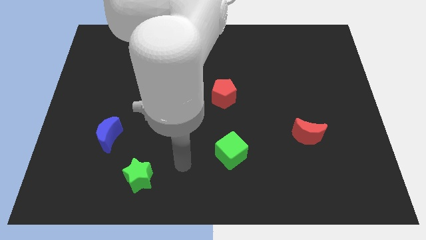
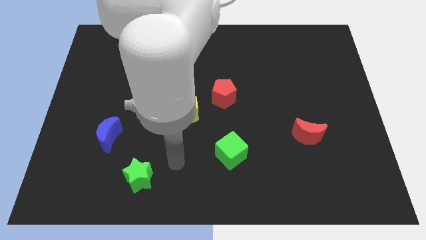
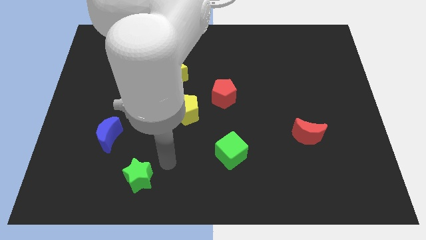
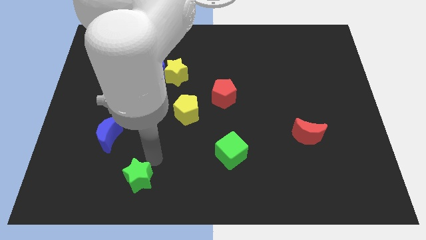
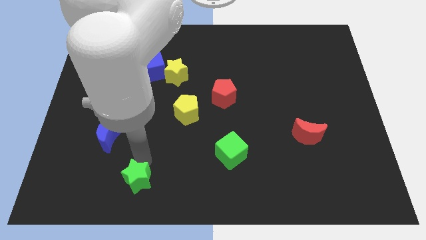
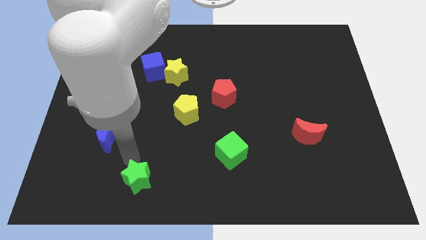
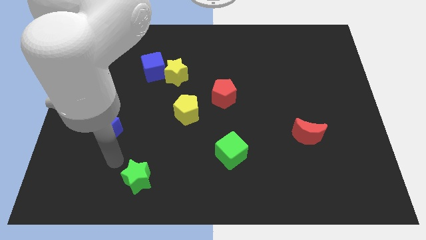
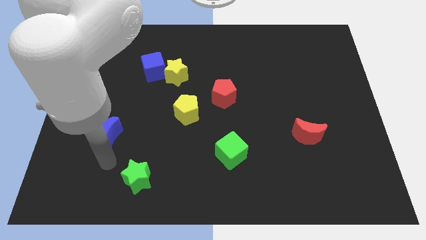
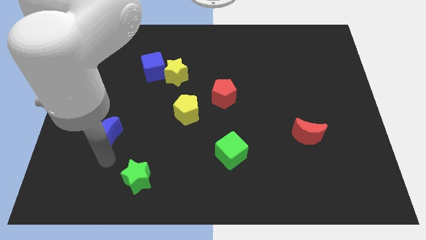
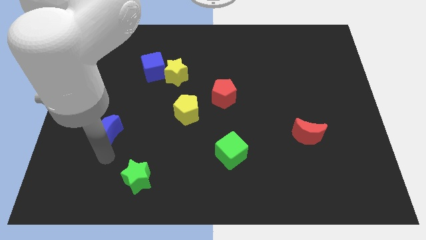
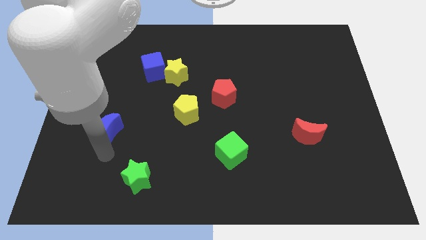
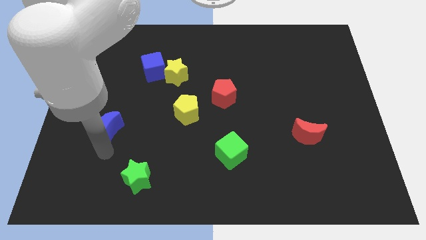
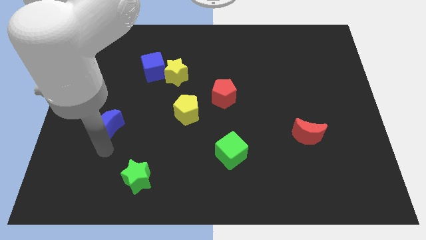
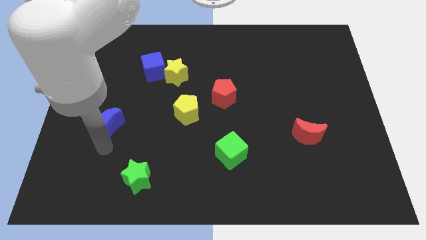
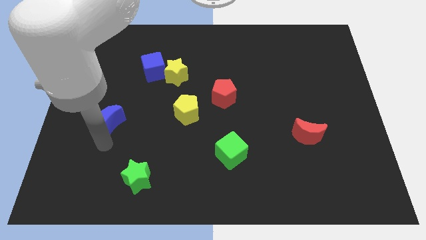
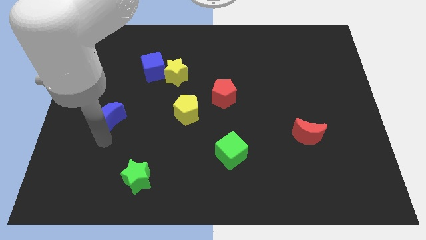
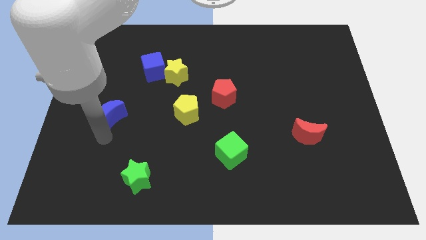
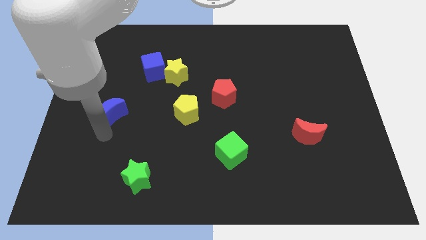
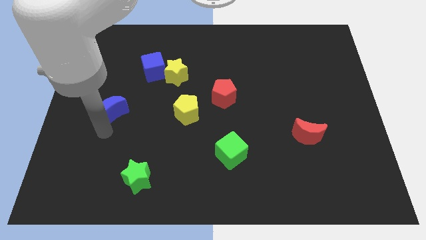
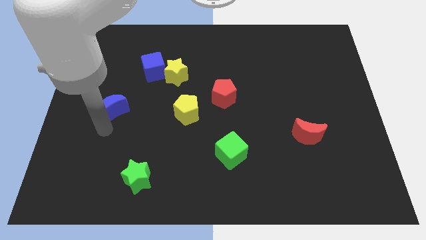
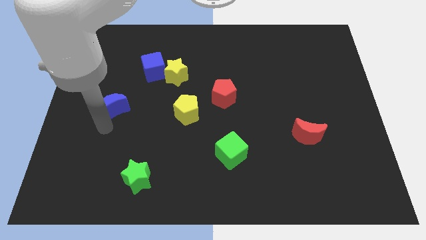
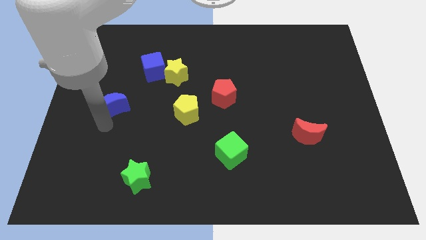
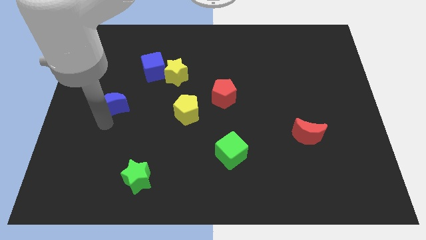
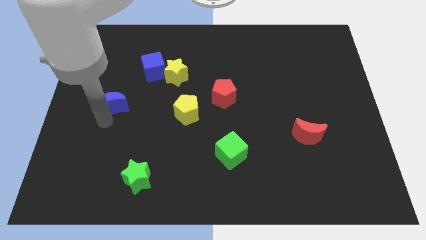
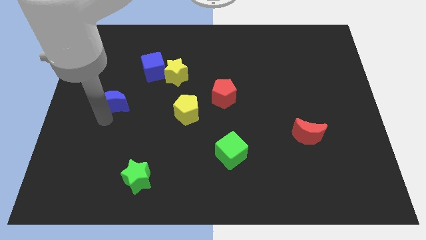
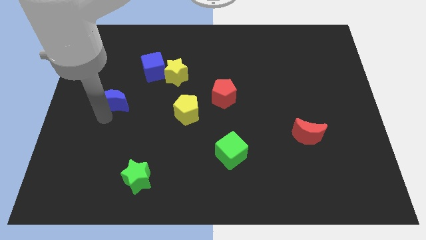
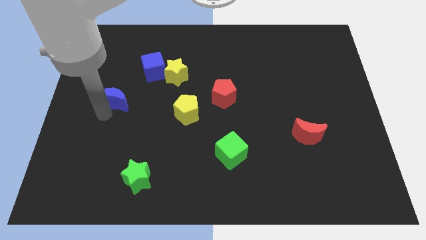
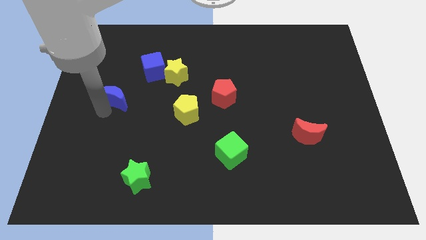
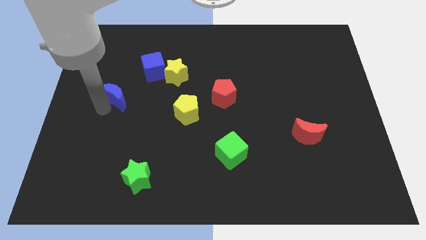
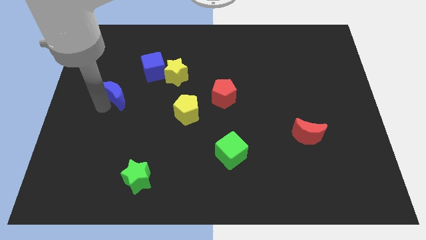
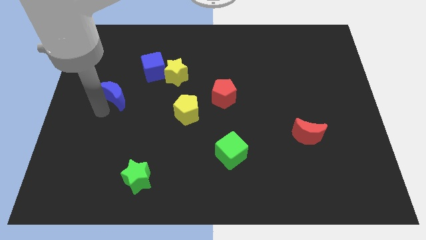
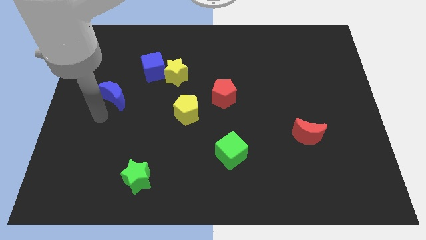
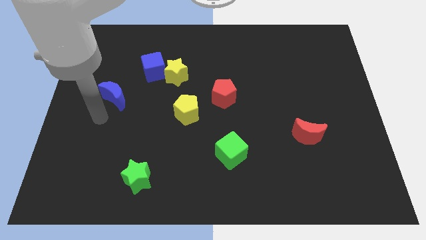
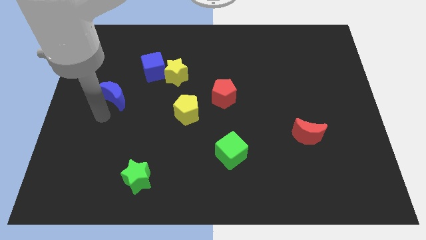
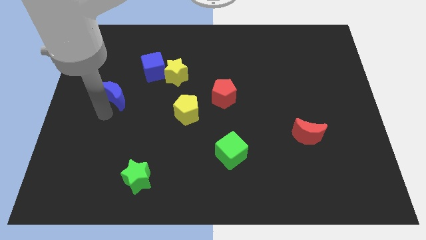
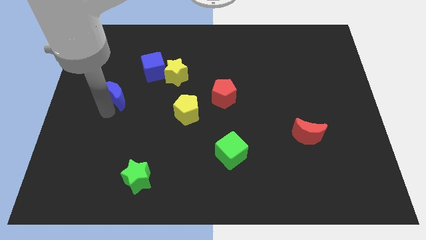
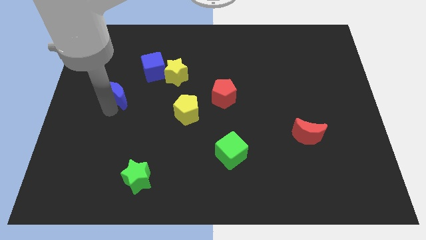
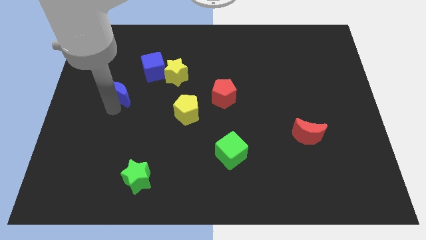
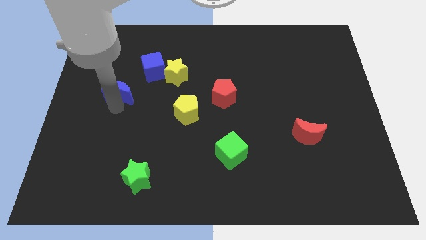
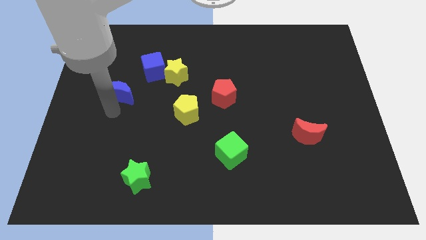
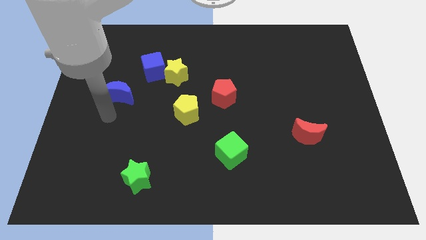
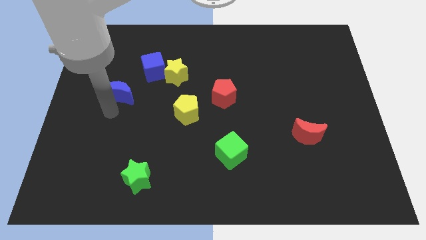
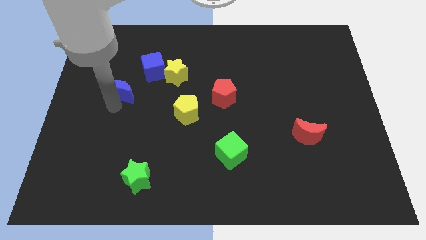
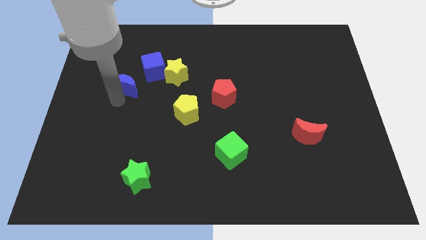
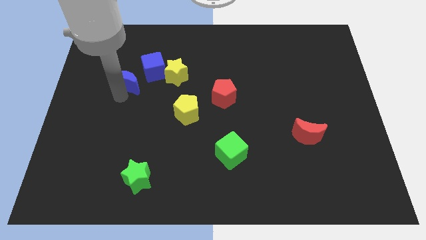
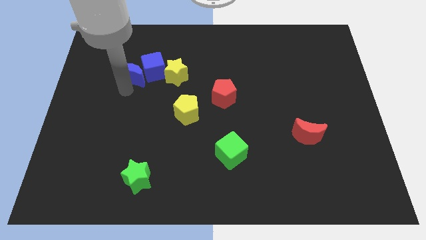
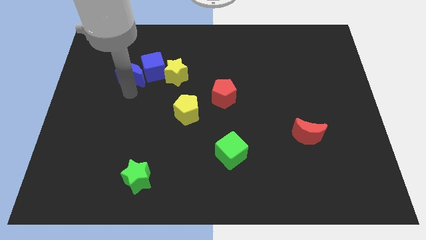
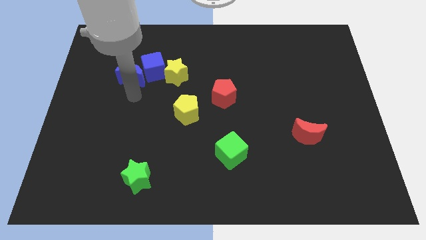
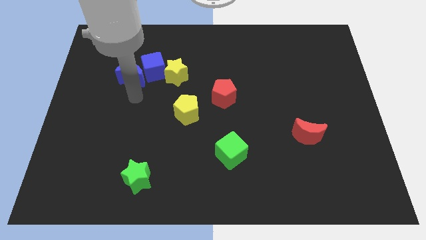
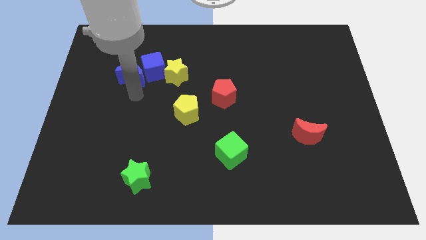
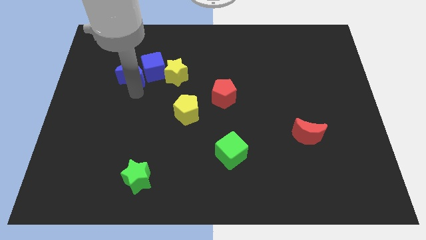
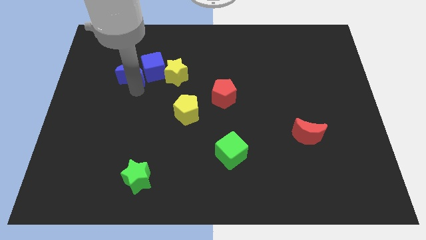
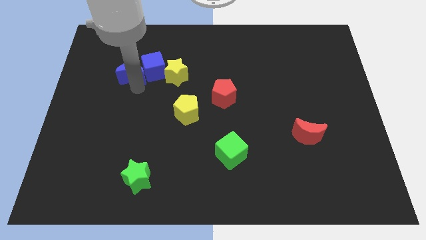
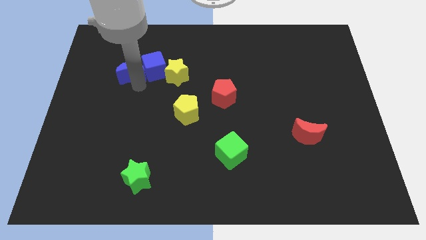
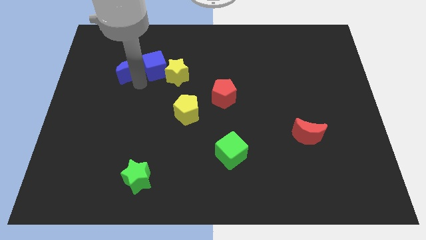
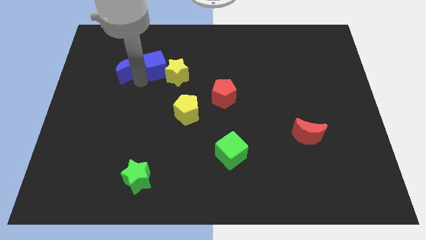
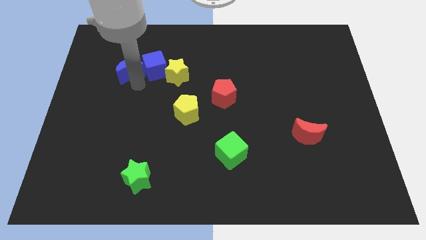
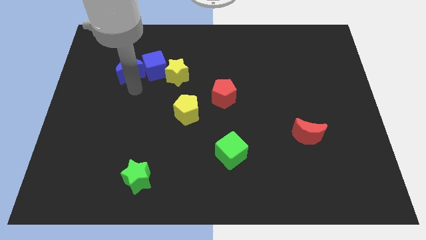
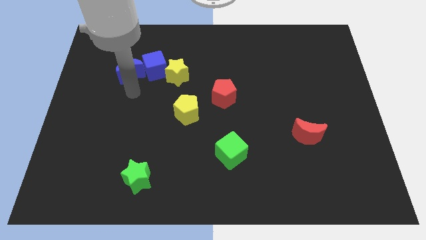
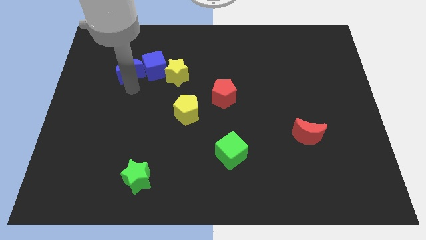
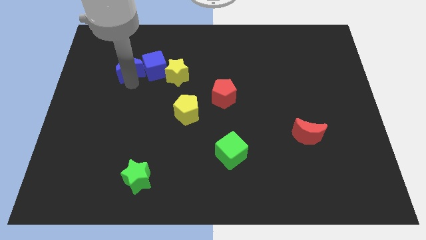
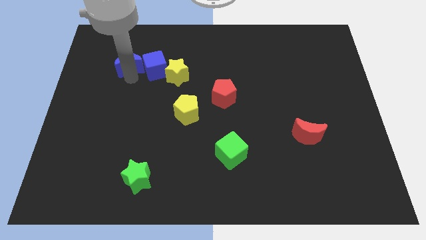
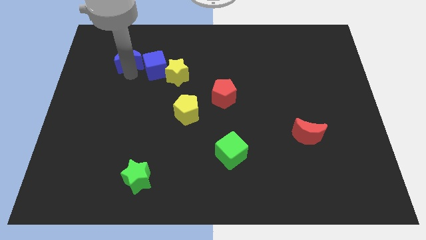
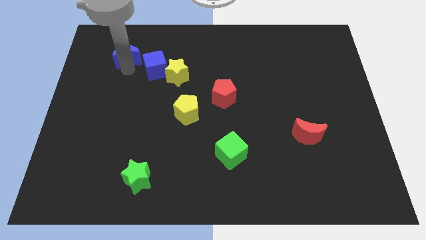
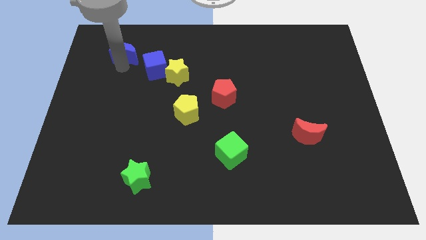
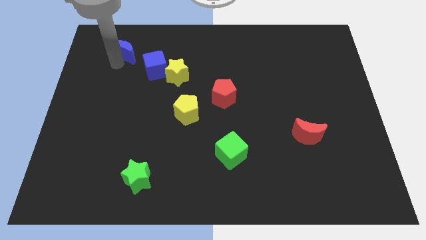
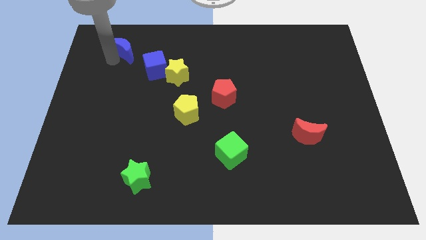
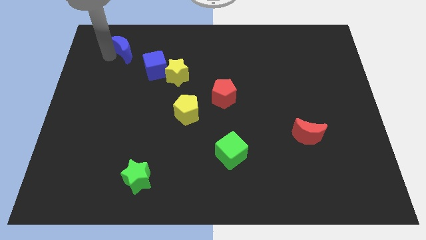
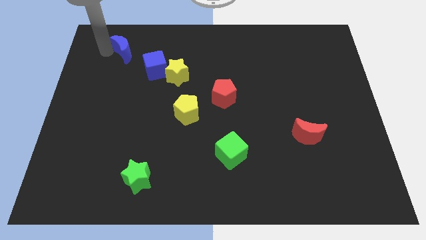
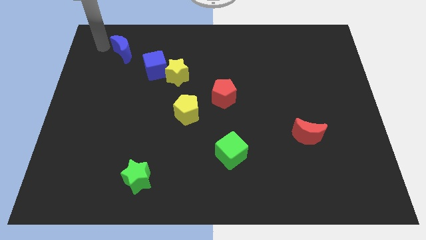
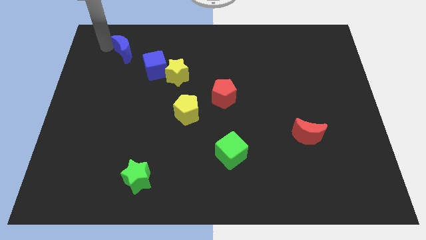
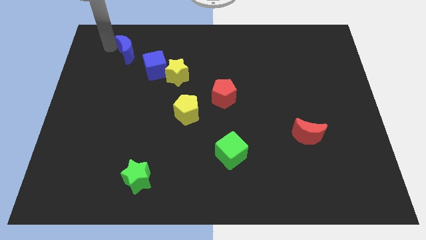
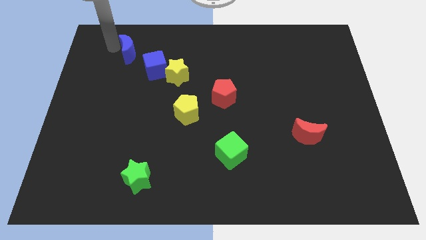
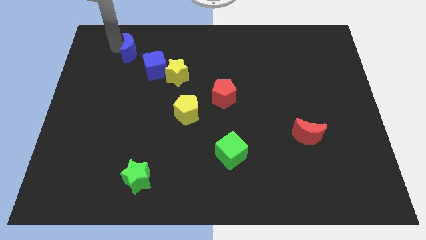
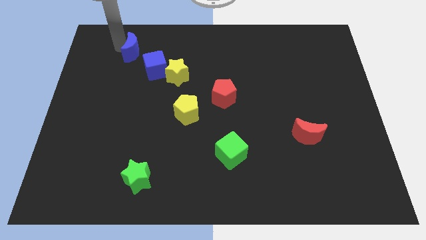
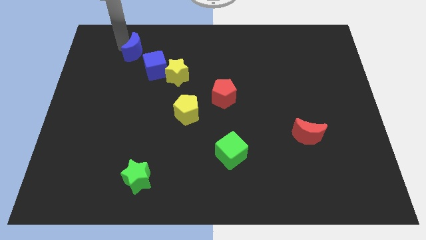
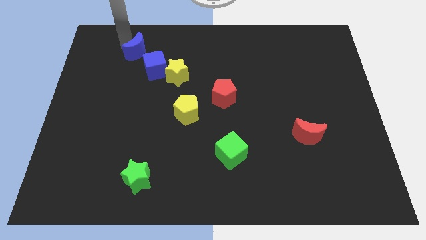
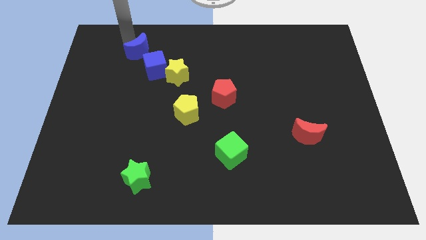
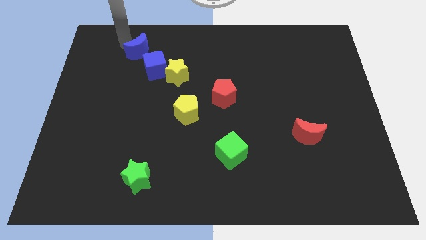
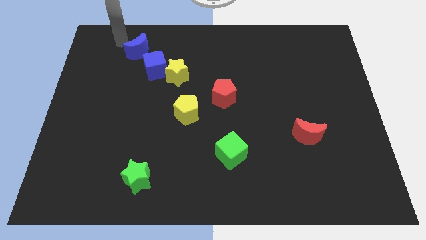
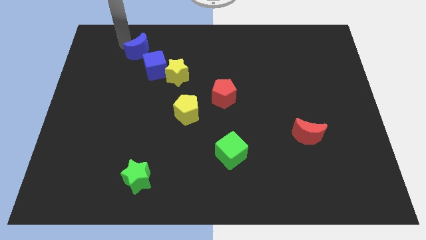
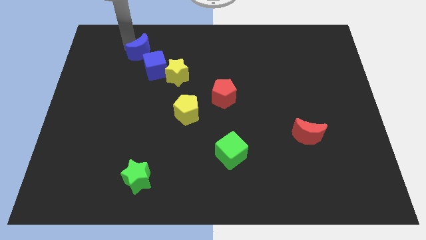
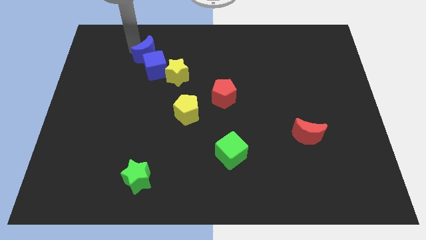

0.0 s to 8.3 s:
push the blue moon diagonally up and to the left of the yellow star
